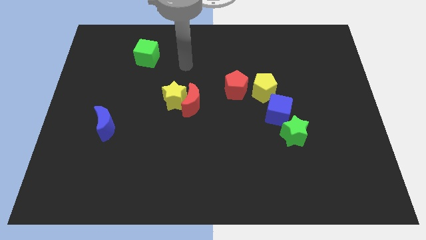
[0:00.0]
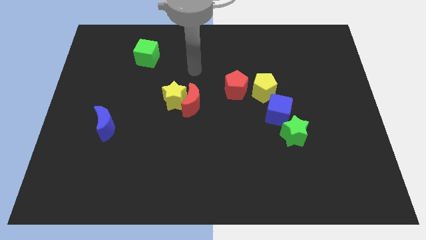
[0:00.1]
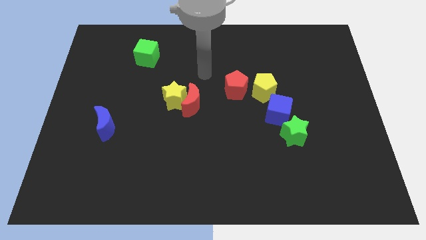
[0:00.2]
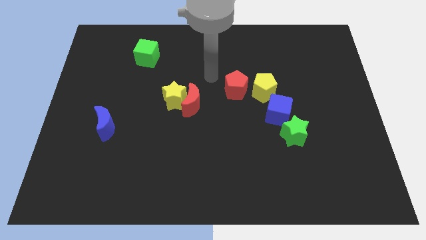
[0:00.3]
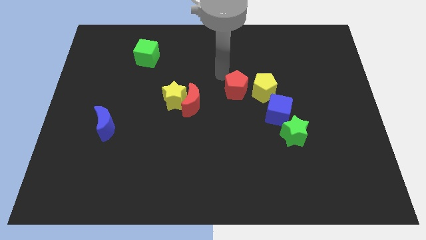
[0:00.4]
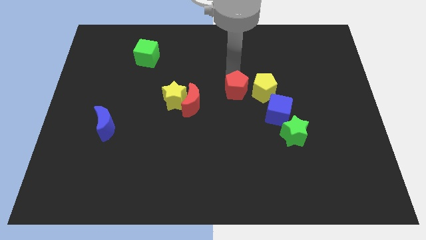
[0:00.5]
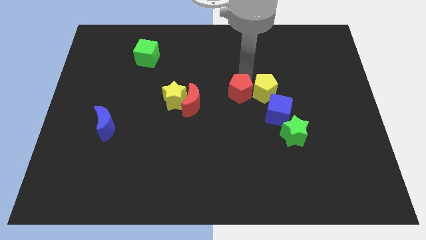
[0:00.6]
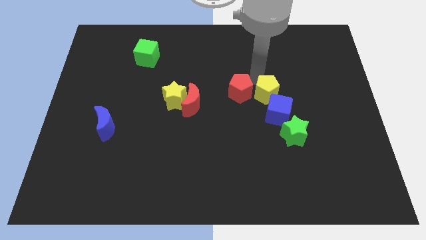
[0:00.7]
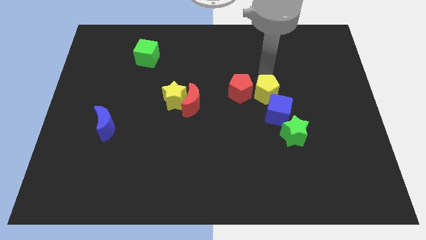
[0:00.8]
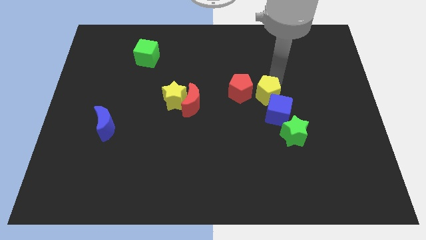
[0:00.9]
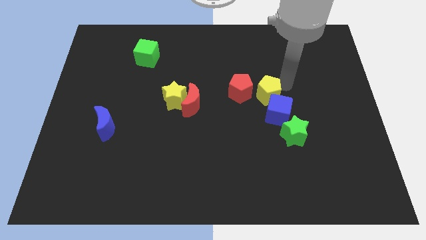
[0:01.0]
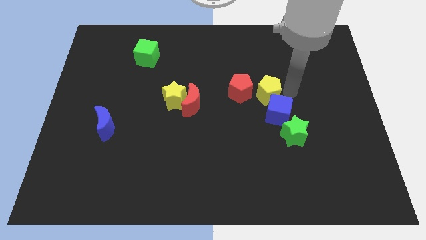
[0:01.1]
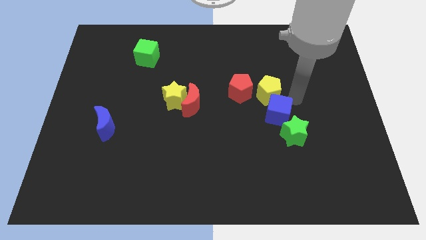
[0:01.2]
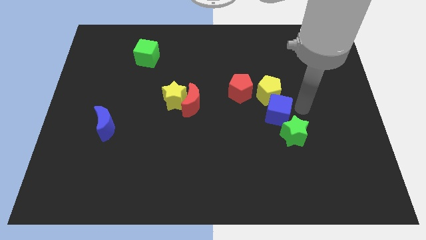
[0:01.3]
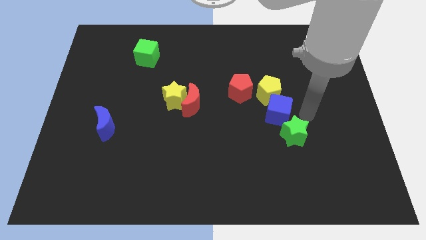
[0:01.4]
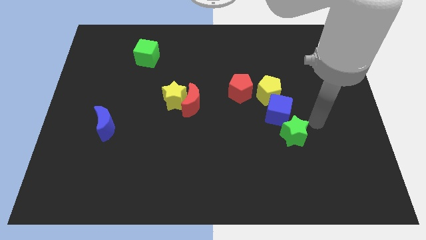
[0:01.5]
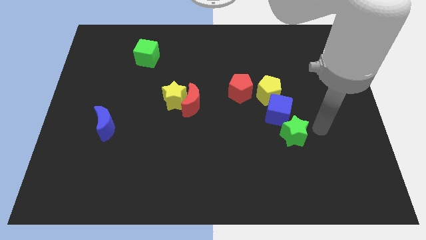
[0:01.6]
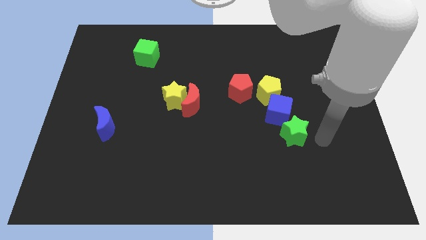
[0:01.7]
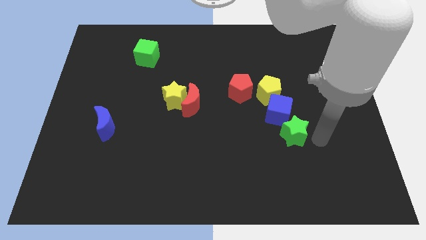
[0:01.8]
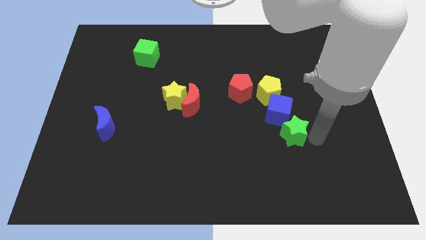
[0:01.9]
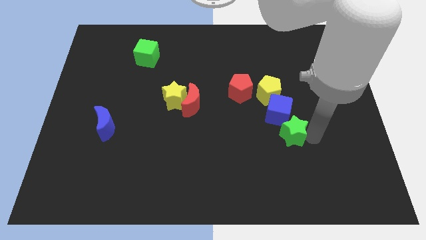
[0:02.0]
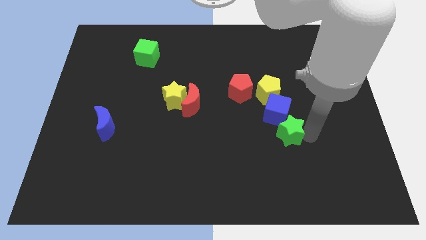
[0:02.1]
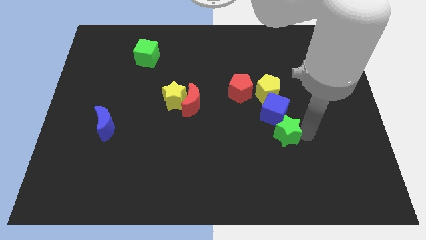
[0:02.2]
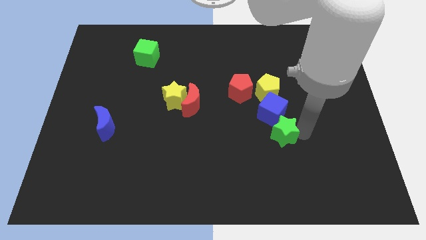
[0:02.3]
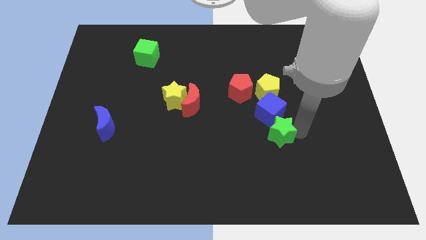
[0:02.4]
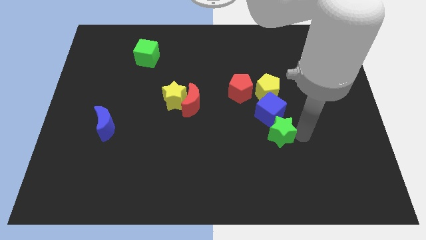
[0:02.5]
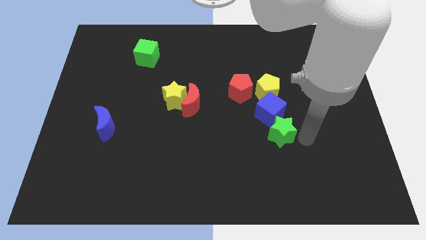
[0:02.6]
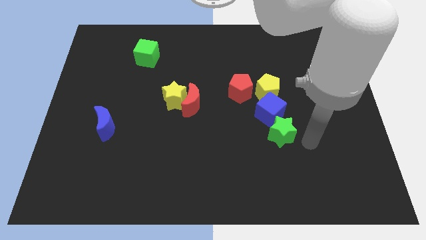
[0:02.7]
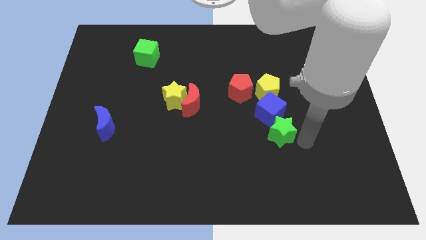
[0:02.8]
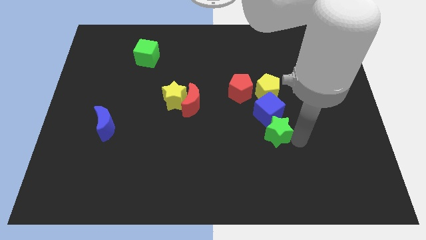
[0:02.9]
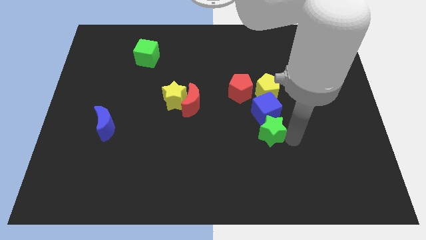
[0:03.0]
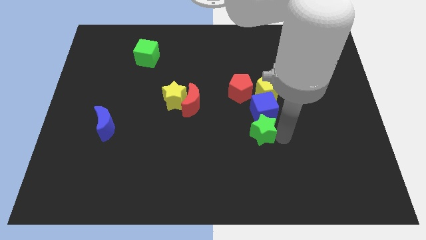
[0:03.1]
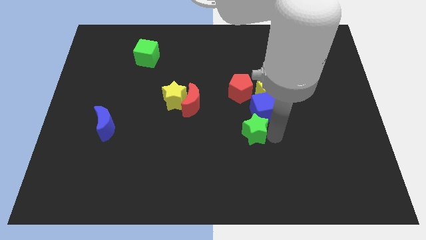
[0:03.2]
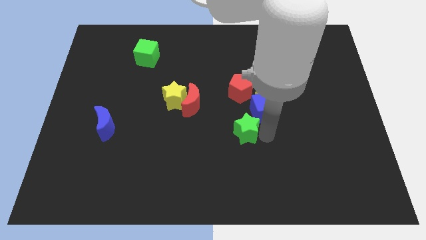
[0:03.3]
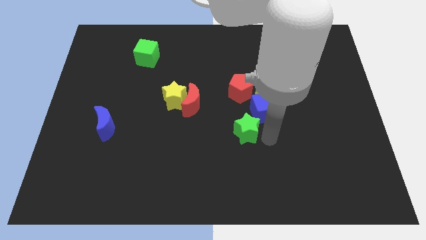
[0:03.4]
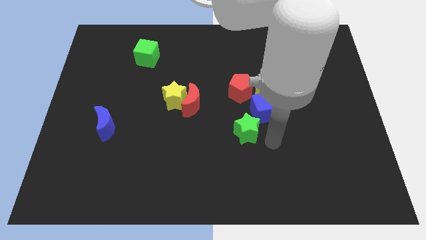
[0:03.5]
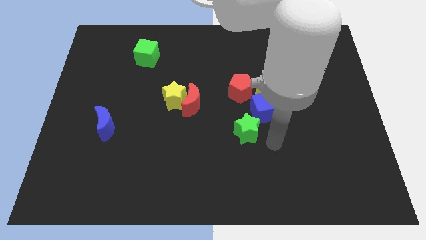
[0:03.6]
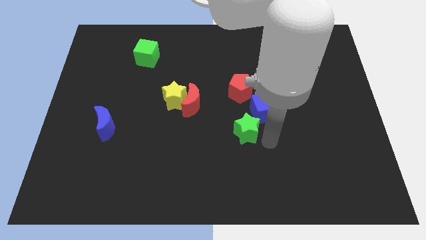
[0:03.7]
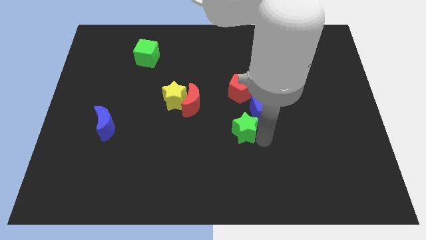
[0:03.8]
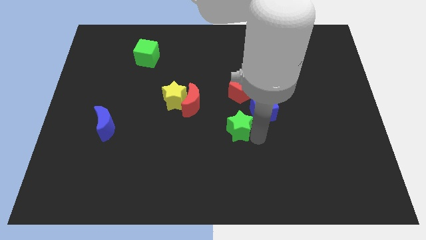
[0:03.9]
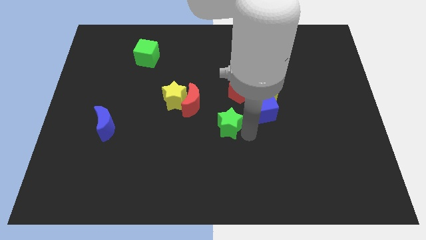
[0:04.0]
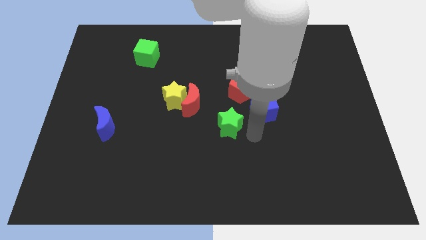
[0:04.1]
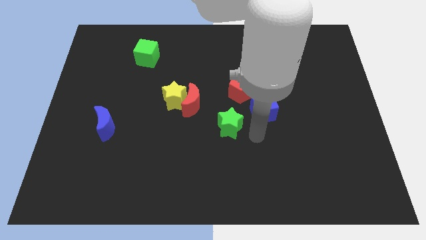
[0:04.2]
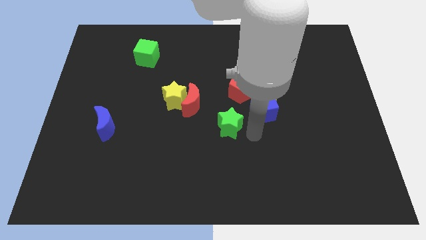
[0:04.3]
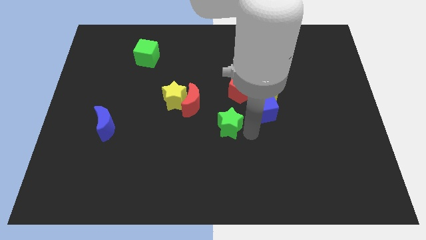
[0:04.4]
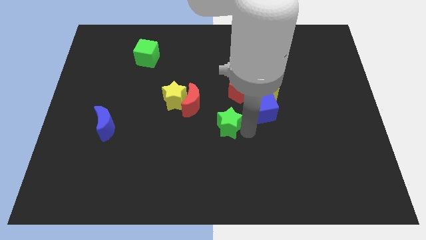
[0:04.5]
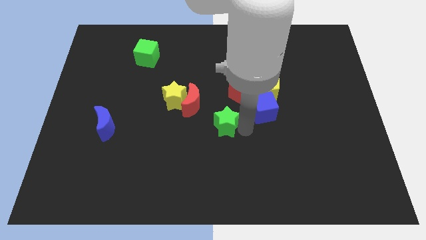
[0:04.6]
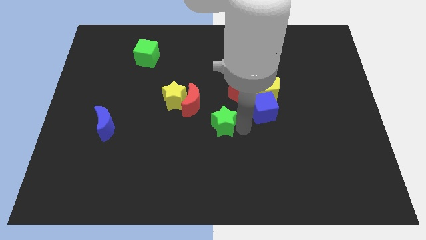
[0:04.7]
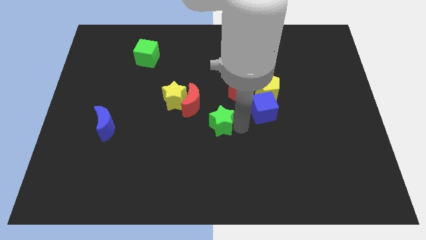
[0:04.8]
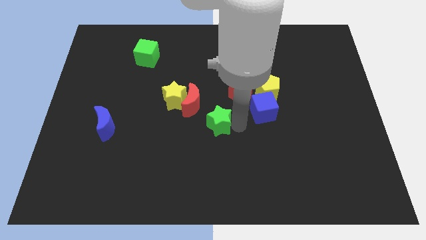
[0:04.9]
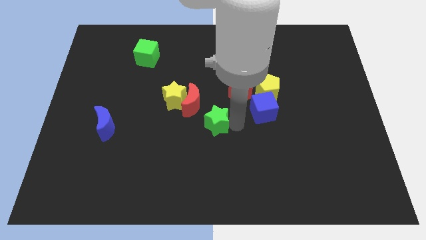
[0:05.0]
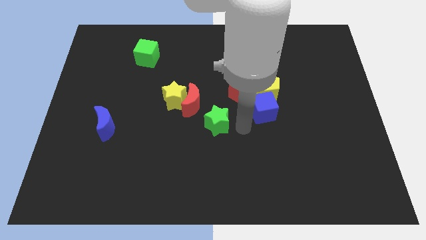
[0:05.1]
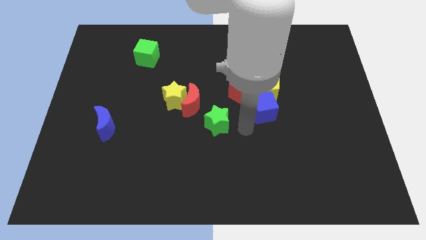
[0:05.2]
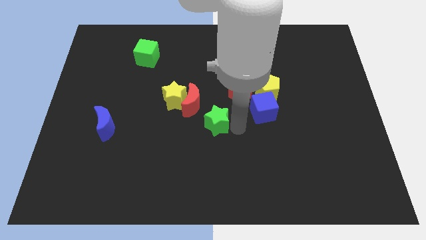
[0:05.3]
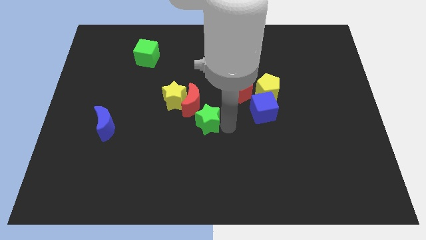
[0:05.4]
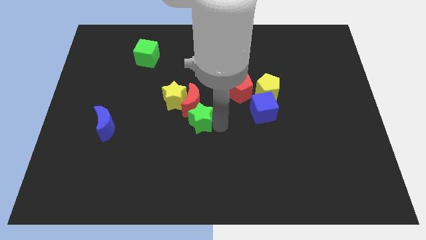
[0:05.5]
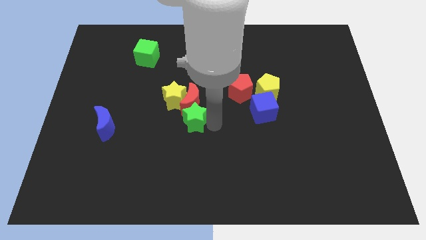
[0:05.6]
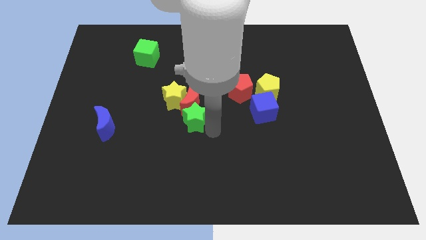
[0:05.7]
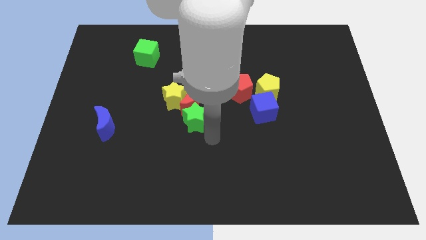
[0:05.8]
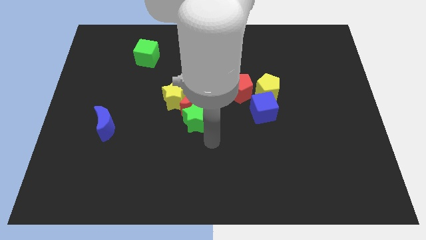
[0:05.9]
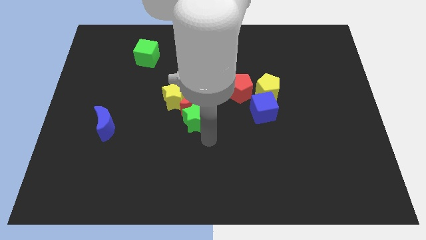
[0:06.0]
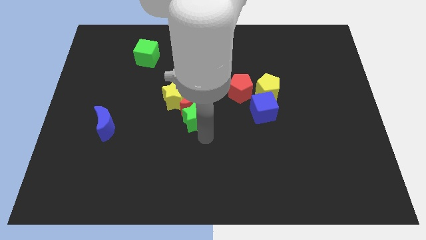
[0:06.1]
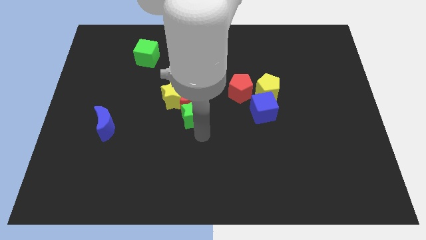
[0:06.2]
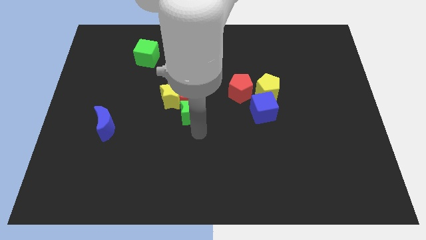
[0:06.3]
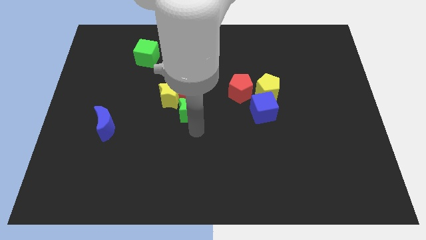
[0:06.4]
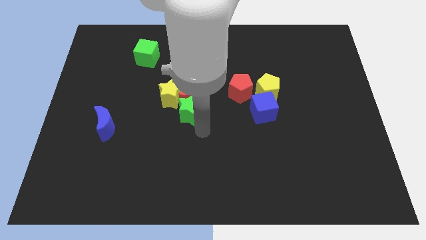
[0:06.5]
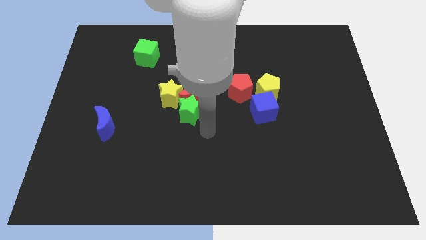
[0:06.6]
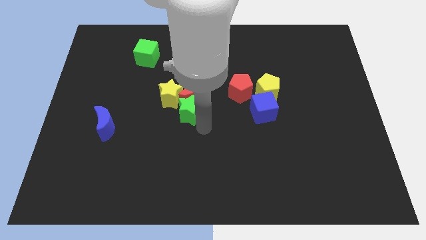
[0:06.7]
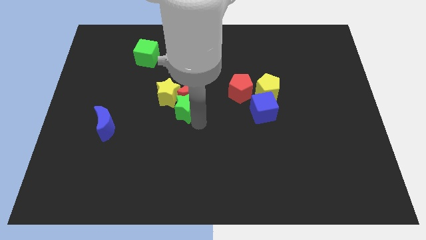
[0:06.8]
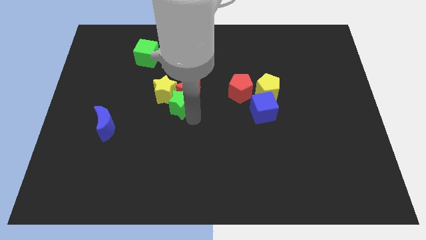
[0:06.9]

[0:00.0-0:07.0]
put the green star to the yellow star
